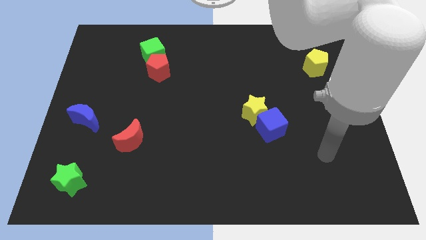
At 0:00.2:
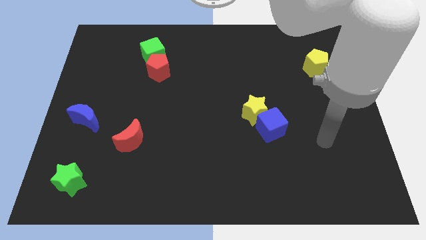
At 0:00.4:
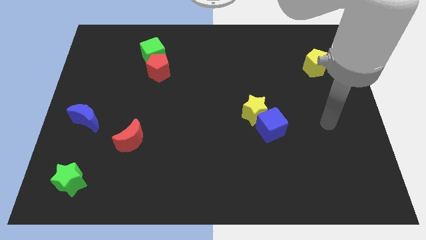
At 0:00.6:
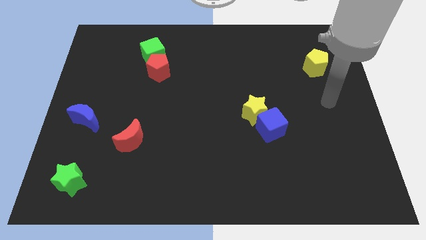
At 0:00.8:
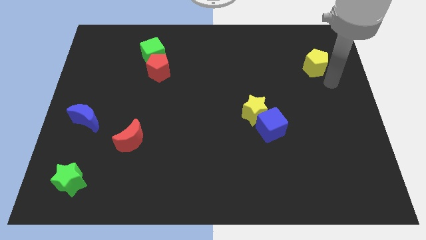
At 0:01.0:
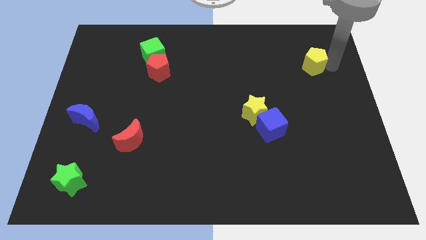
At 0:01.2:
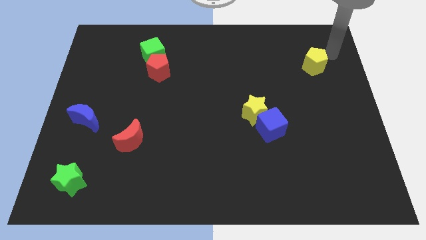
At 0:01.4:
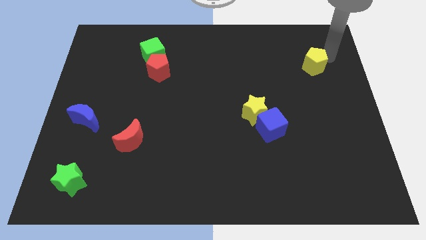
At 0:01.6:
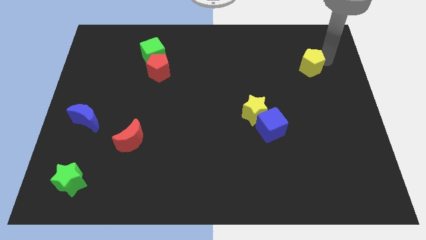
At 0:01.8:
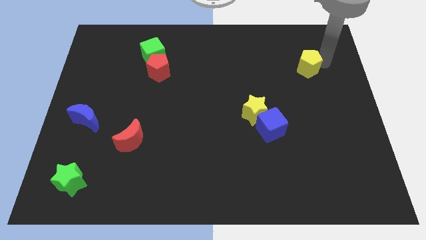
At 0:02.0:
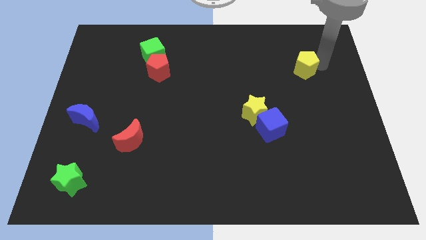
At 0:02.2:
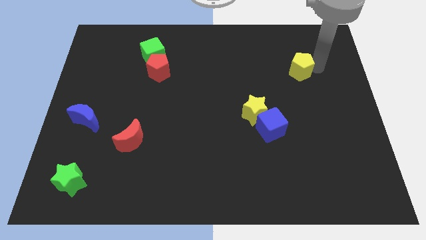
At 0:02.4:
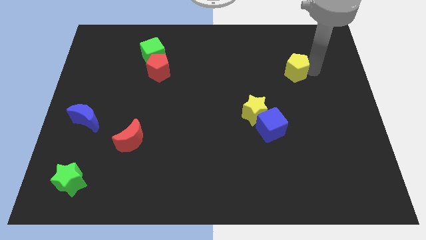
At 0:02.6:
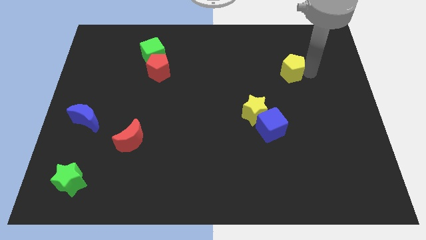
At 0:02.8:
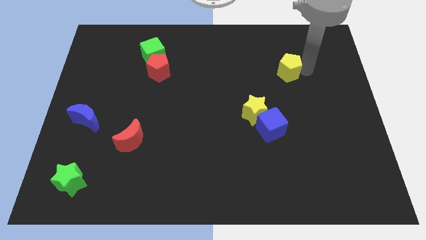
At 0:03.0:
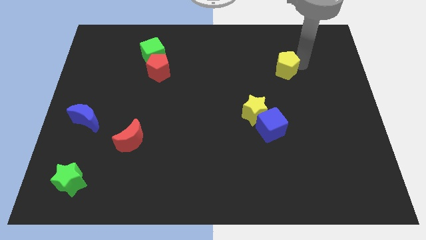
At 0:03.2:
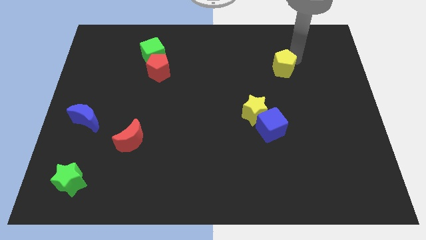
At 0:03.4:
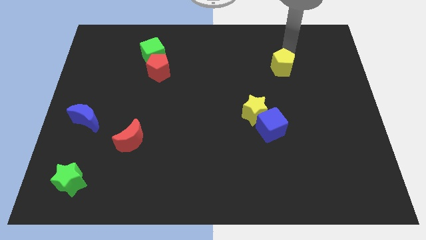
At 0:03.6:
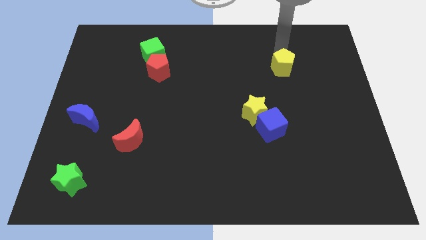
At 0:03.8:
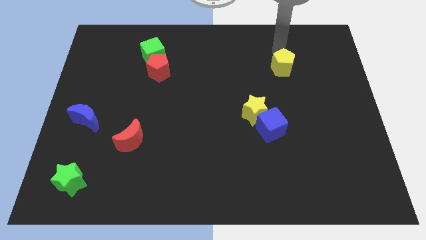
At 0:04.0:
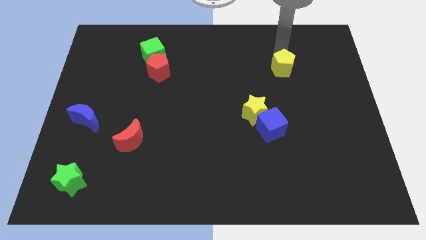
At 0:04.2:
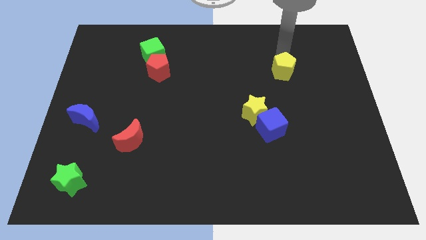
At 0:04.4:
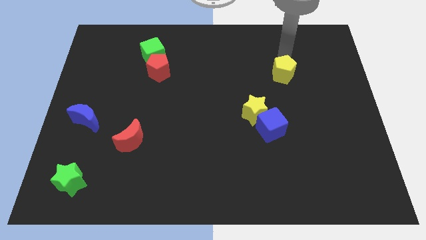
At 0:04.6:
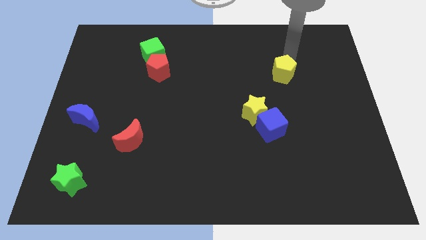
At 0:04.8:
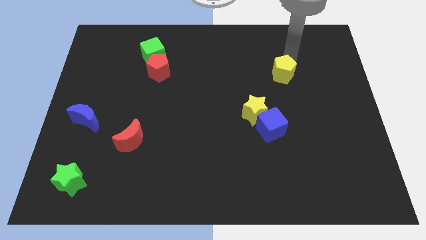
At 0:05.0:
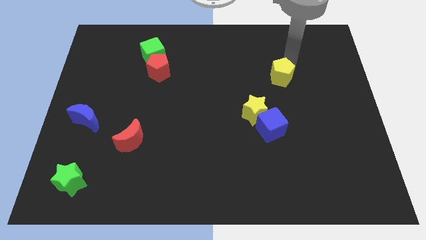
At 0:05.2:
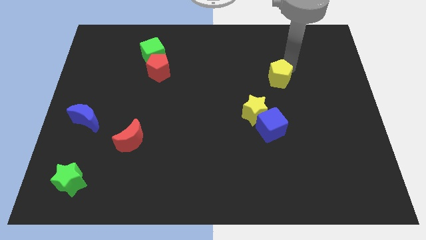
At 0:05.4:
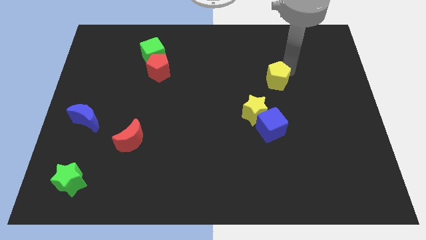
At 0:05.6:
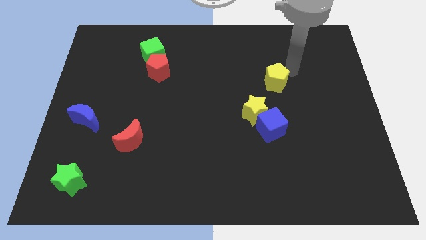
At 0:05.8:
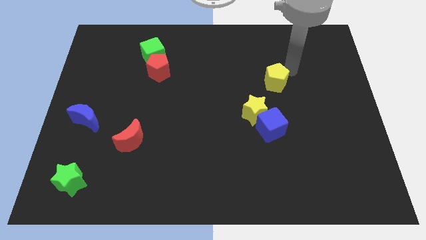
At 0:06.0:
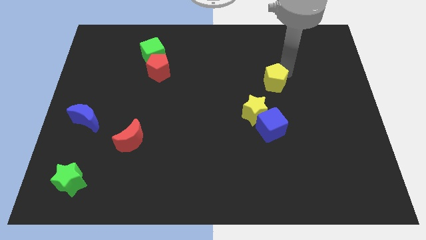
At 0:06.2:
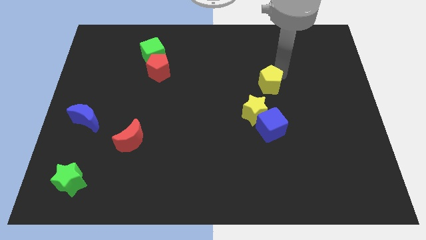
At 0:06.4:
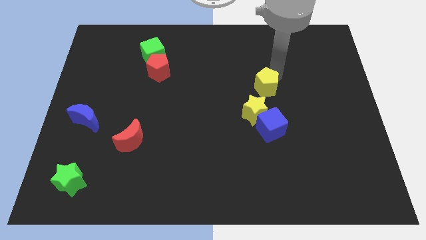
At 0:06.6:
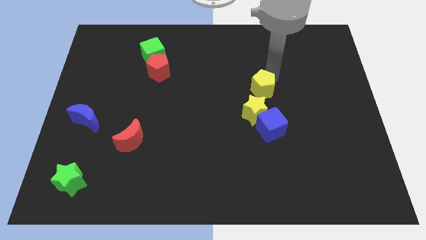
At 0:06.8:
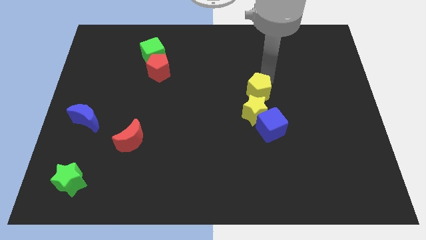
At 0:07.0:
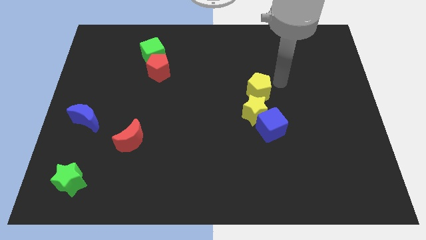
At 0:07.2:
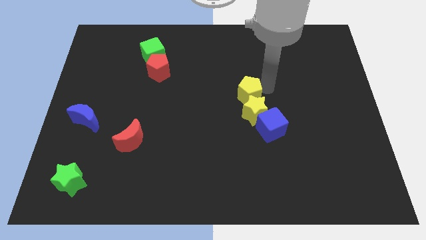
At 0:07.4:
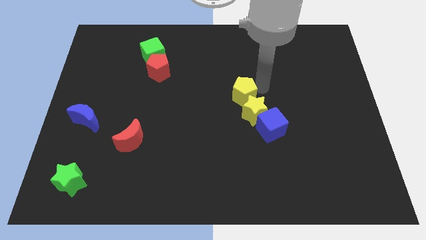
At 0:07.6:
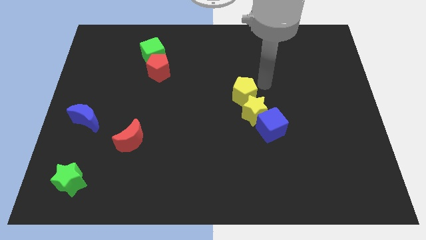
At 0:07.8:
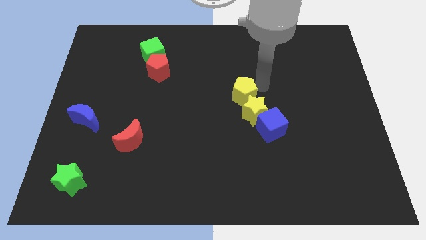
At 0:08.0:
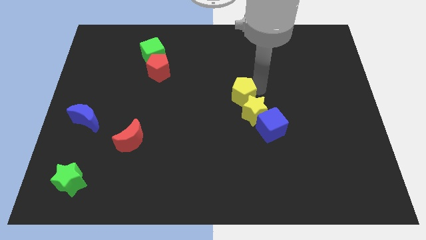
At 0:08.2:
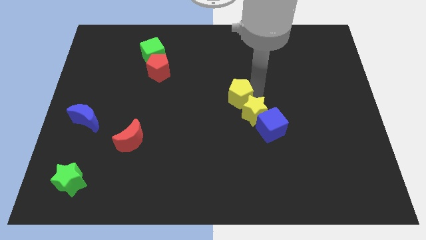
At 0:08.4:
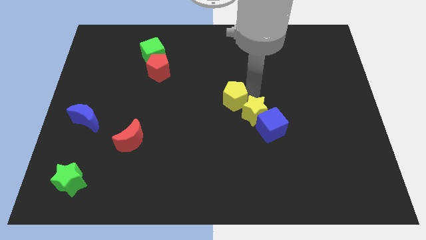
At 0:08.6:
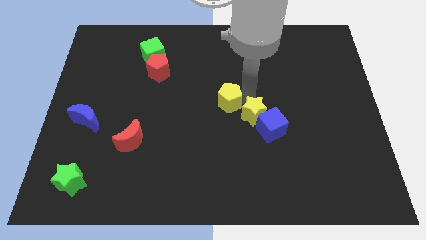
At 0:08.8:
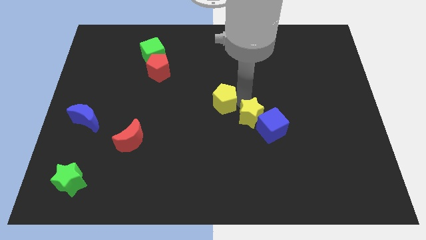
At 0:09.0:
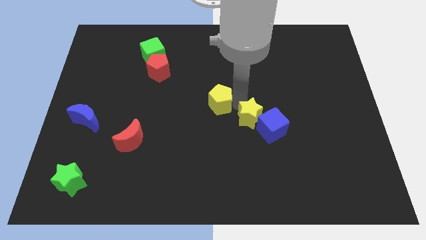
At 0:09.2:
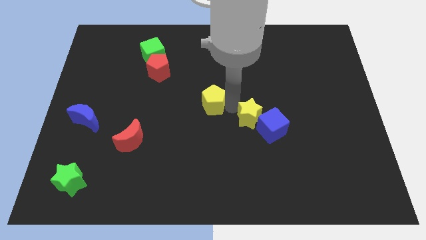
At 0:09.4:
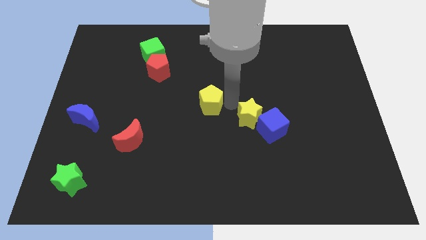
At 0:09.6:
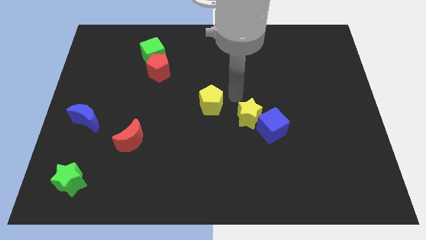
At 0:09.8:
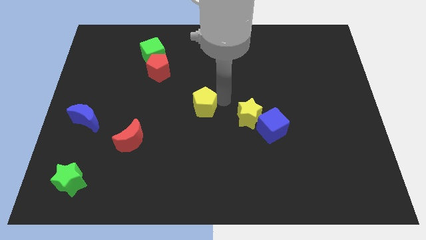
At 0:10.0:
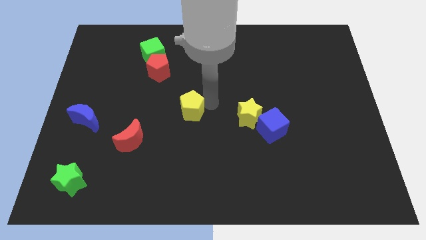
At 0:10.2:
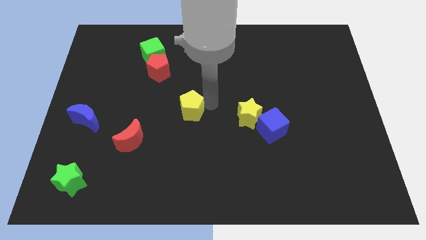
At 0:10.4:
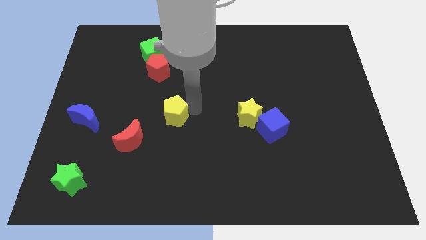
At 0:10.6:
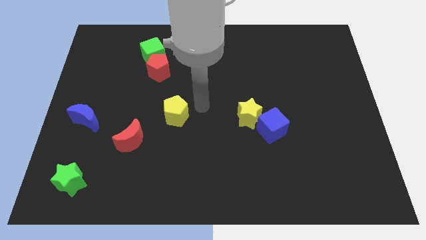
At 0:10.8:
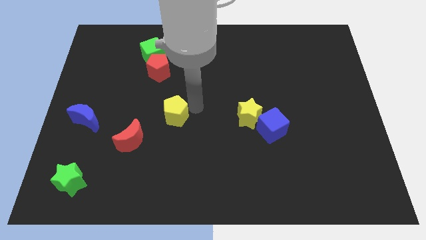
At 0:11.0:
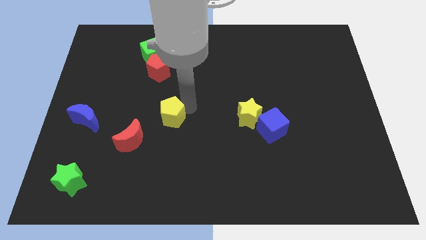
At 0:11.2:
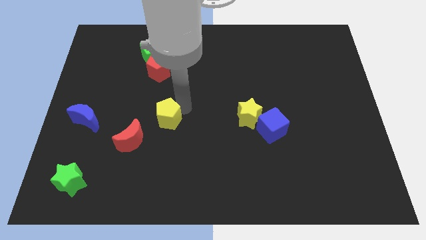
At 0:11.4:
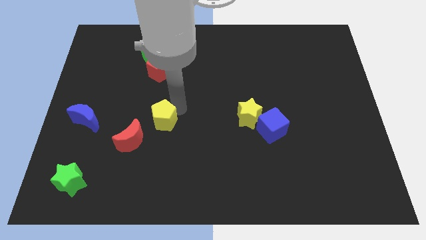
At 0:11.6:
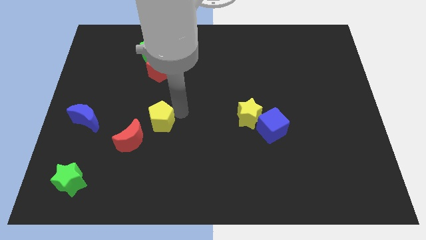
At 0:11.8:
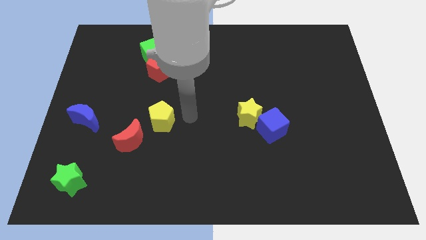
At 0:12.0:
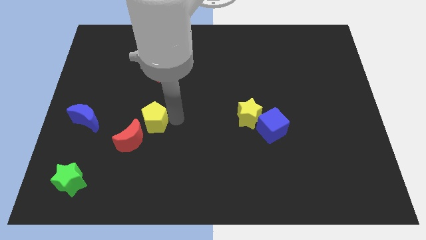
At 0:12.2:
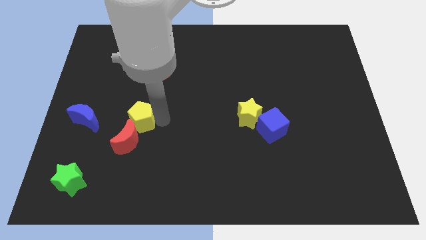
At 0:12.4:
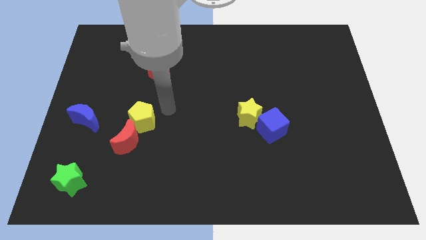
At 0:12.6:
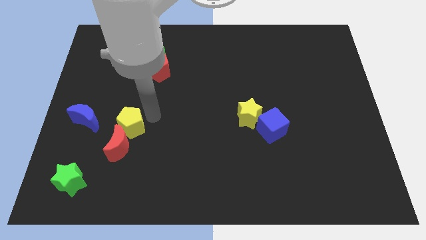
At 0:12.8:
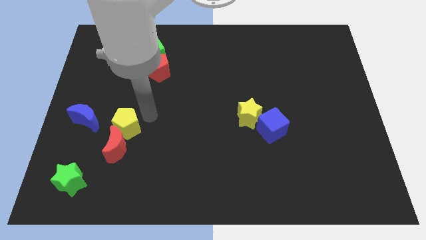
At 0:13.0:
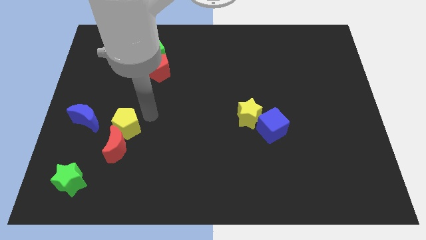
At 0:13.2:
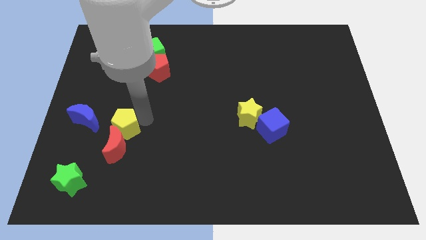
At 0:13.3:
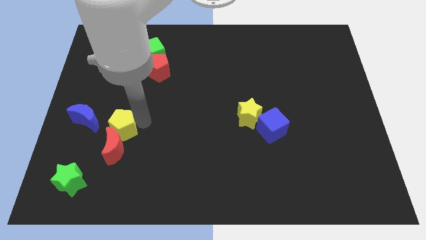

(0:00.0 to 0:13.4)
move the yellow pentagon diagonally down and to the right of the blue moon
